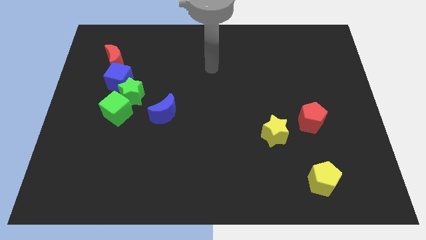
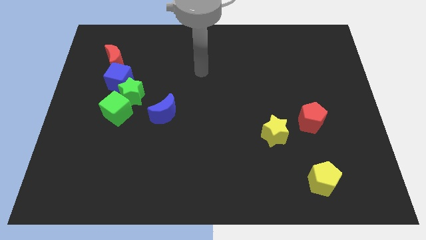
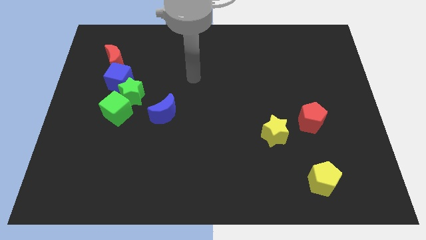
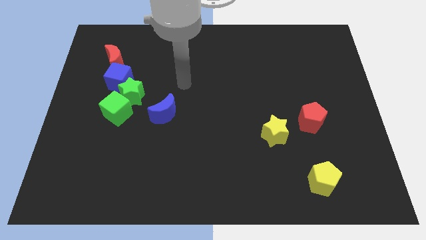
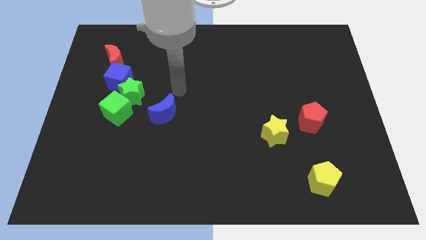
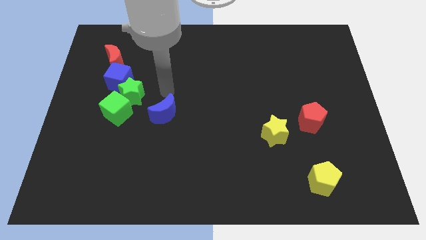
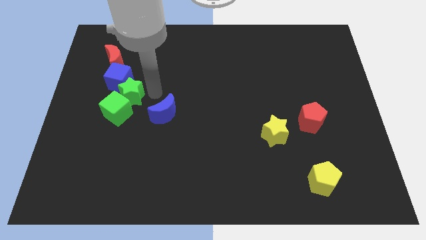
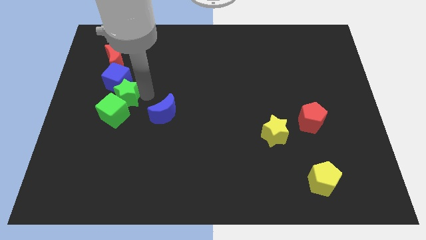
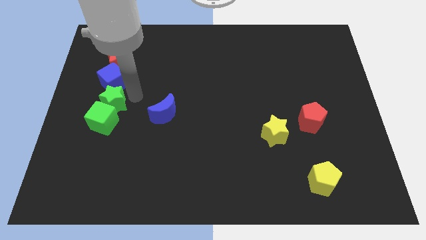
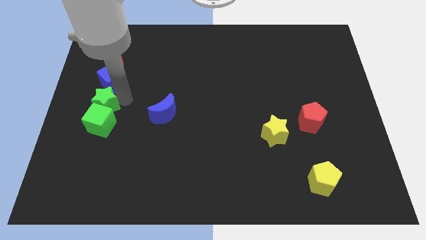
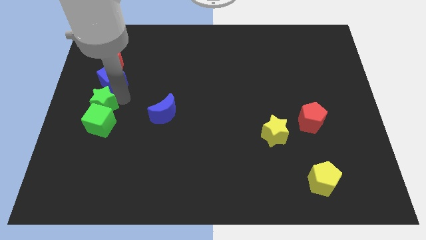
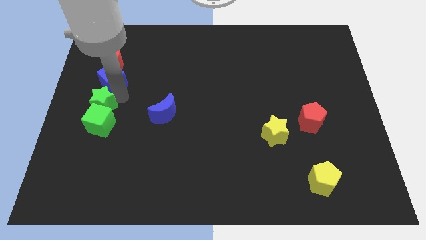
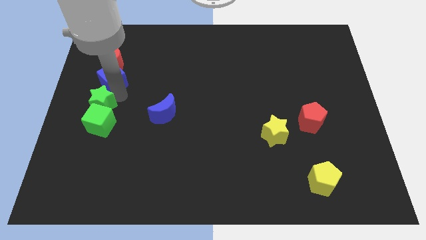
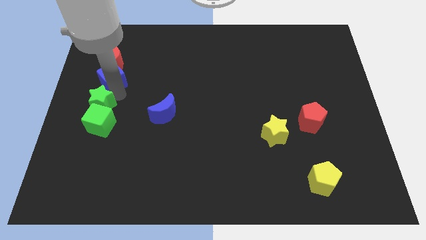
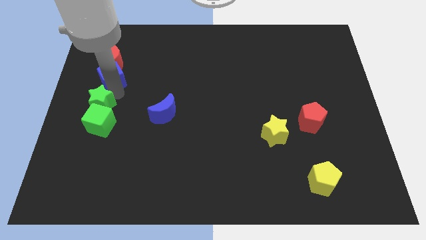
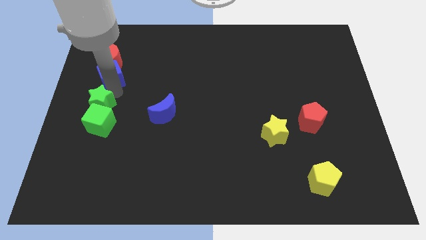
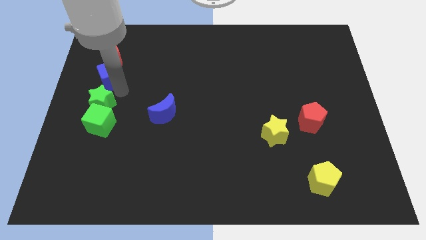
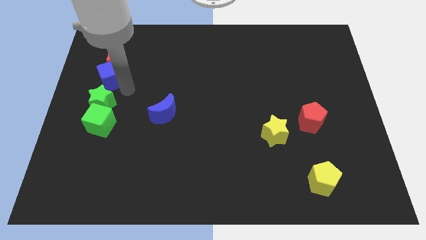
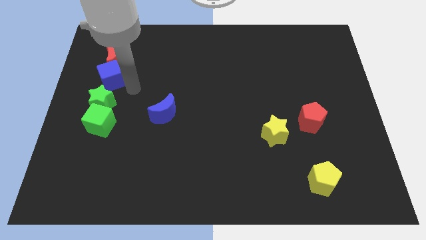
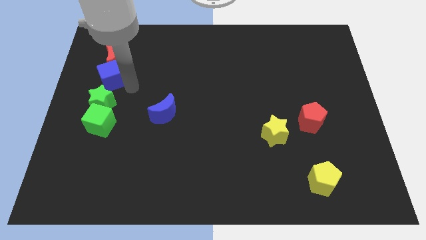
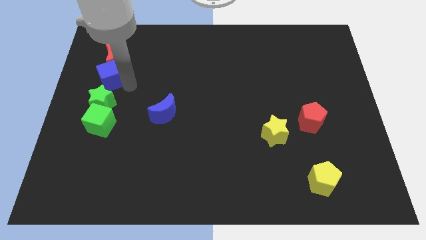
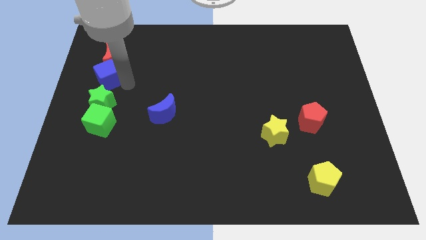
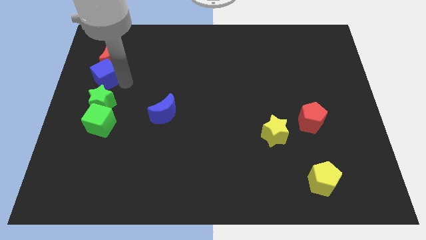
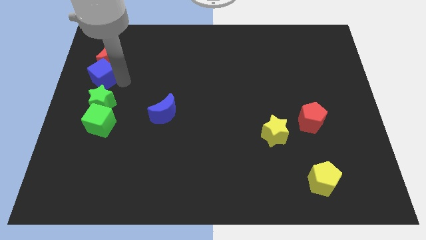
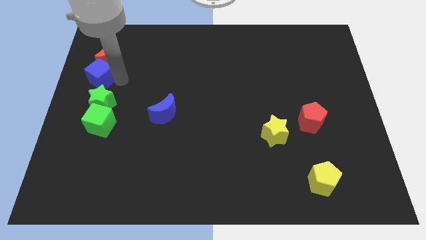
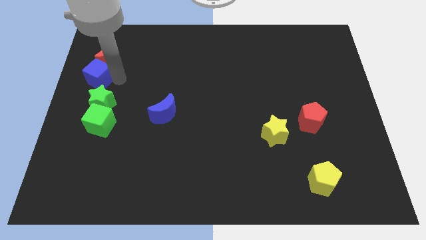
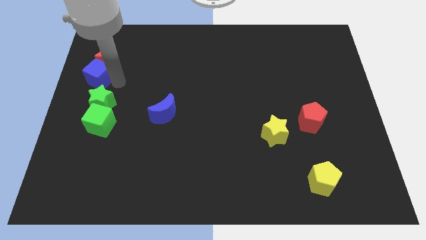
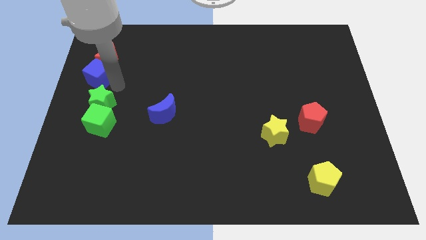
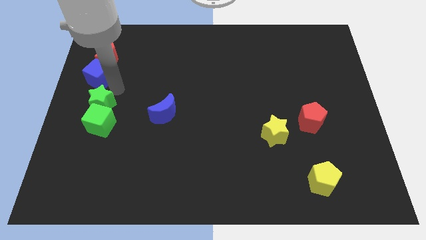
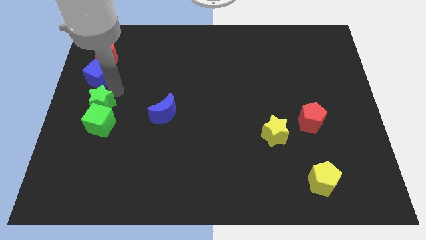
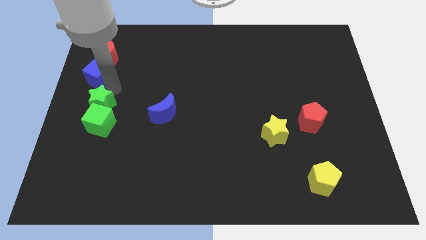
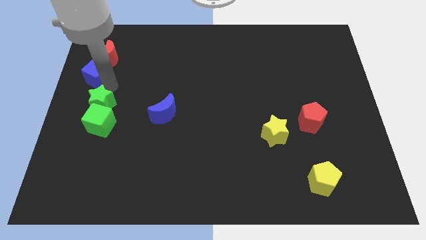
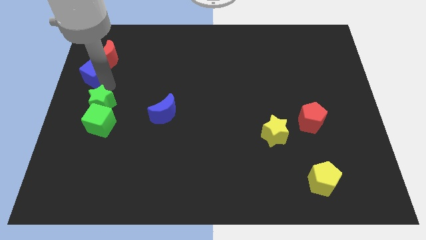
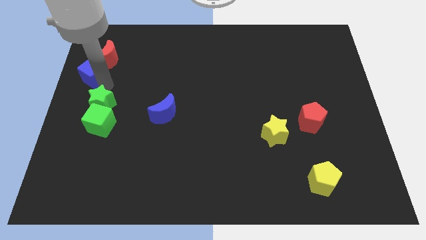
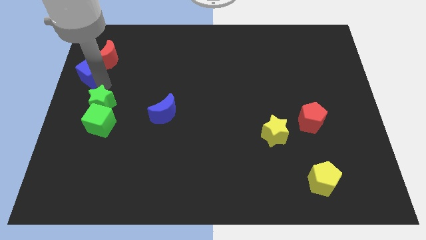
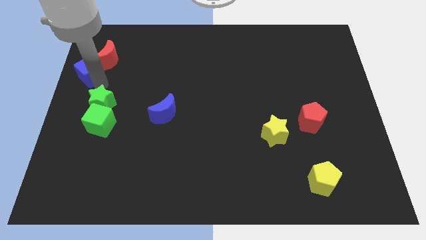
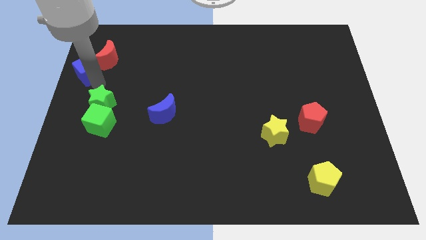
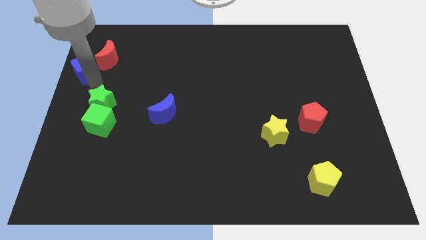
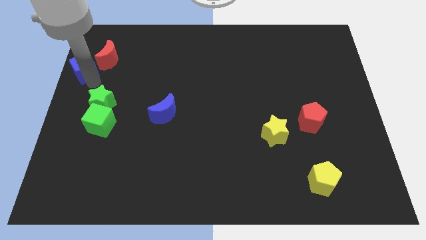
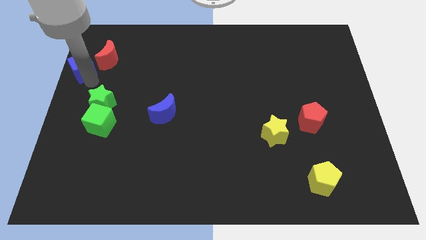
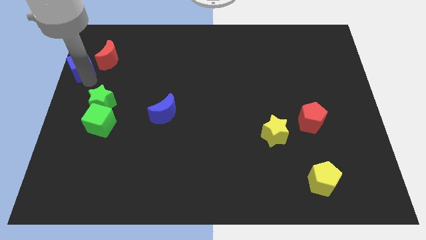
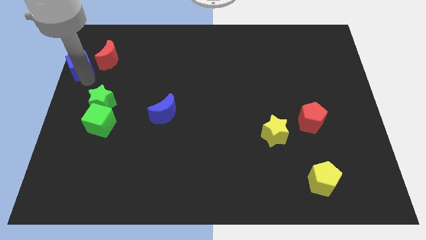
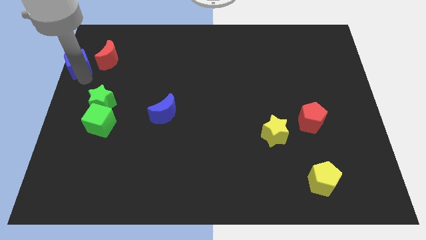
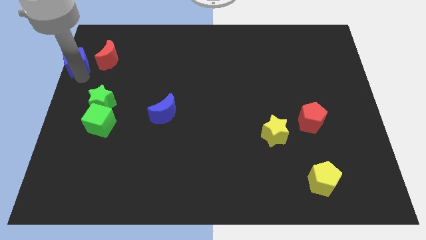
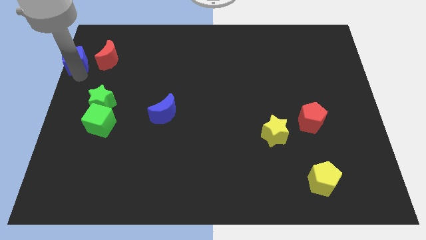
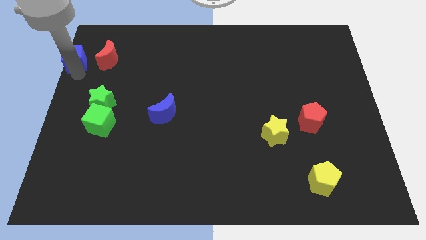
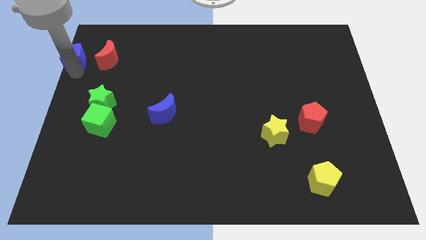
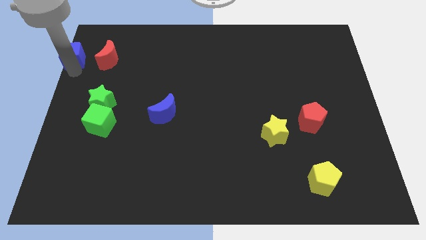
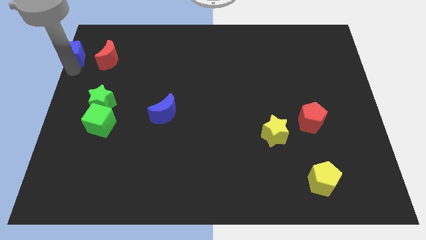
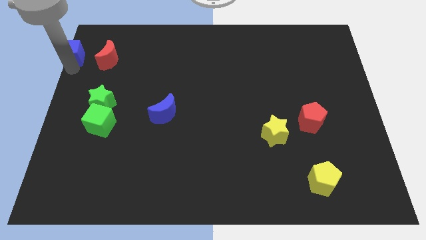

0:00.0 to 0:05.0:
move the blue cube to the upper left corner

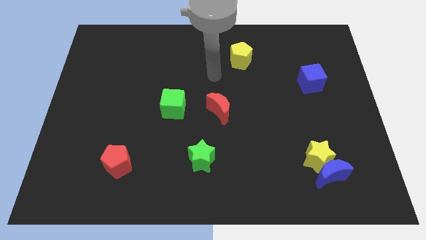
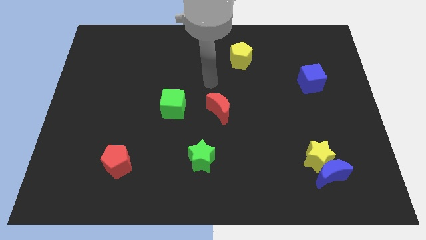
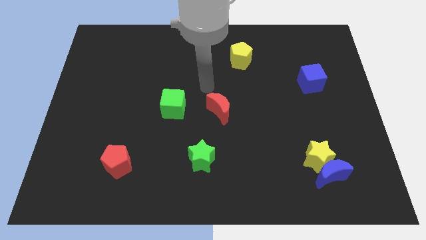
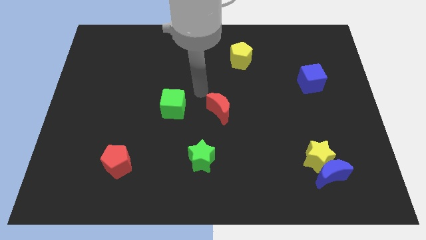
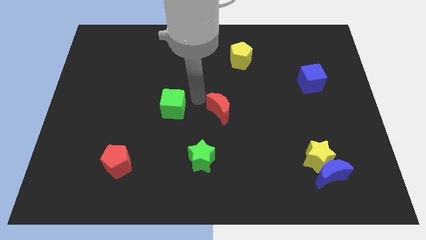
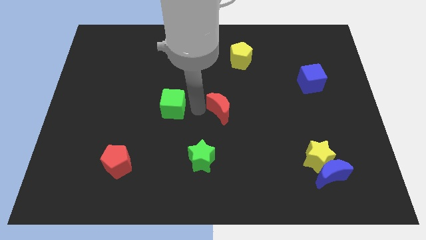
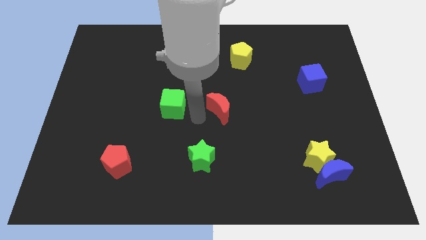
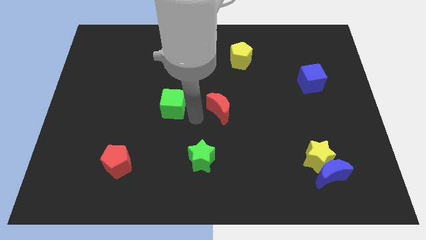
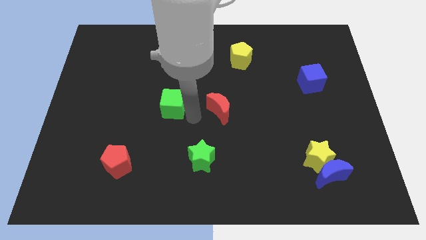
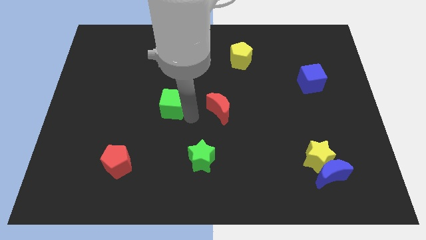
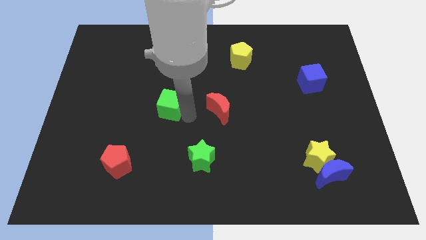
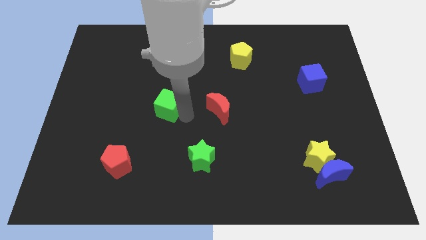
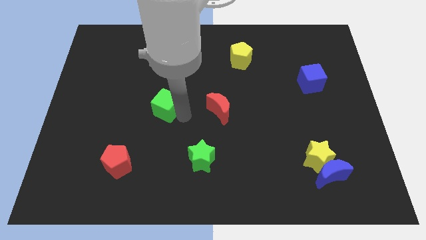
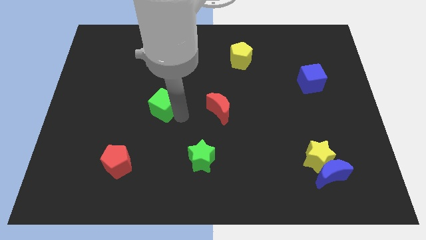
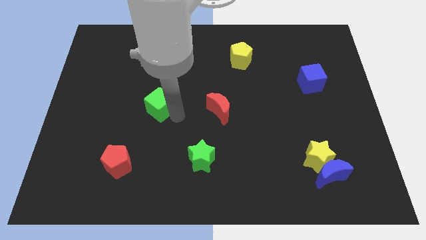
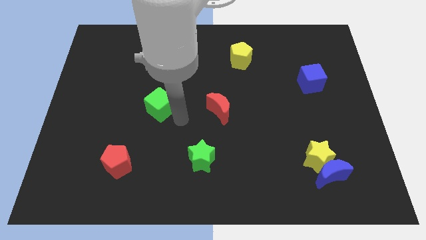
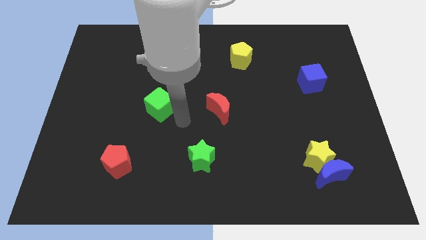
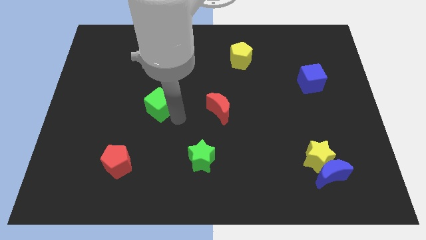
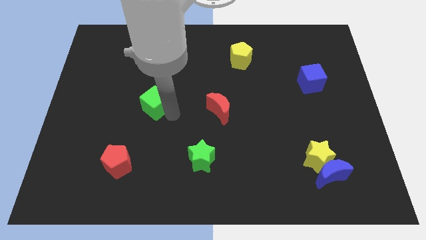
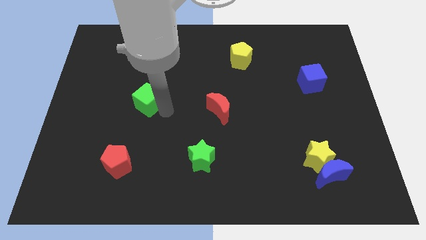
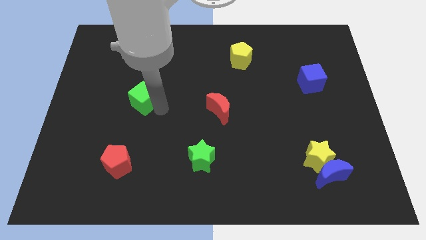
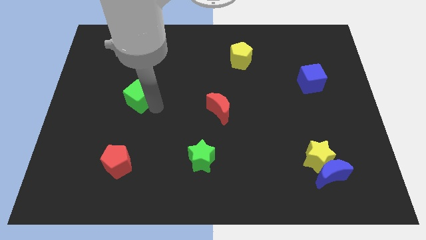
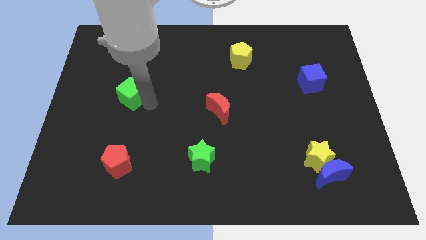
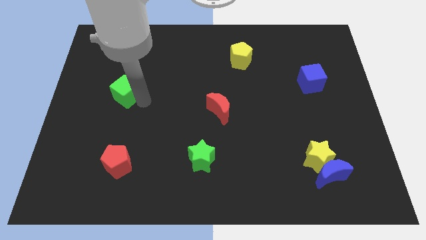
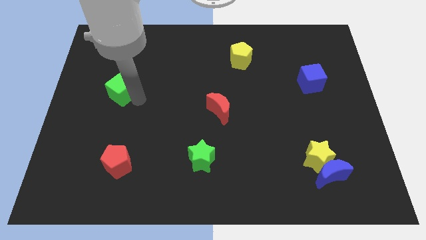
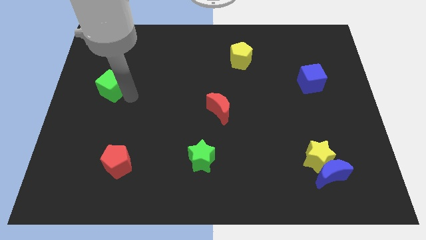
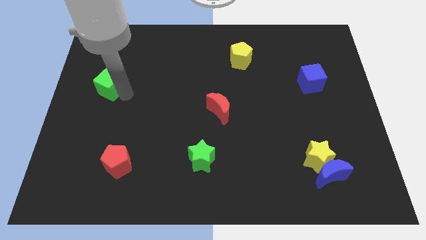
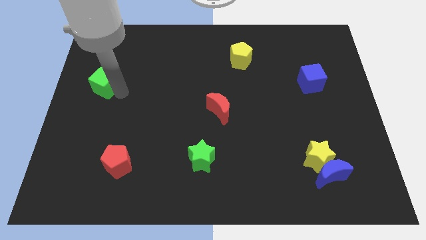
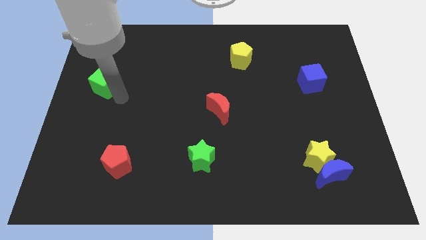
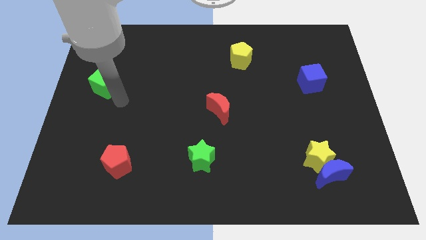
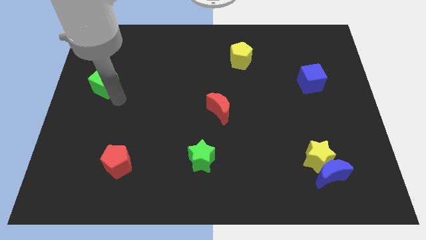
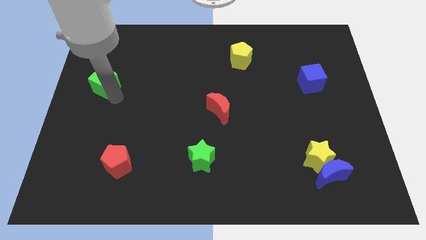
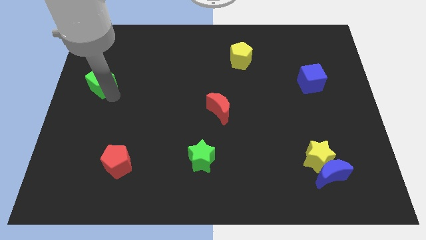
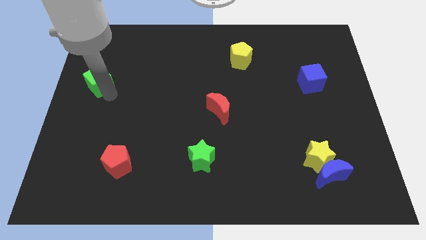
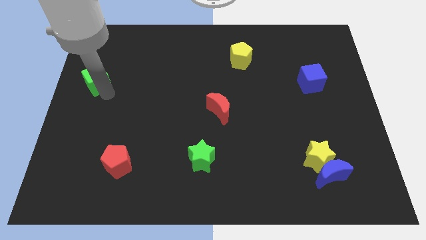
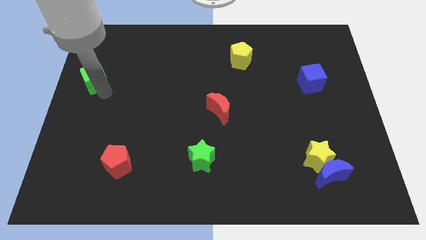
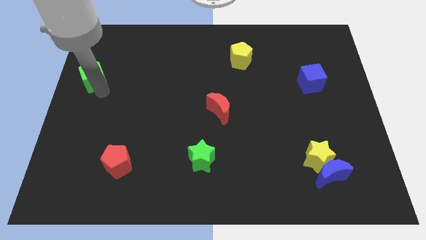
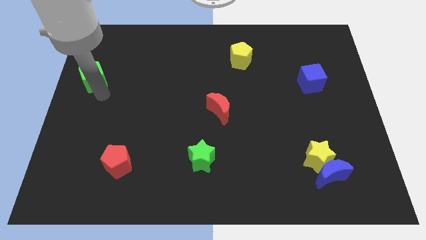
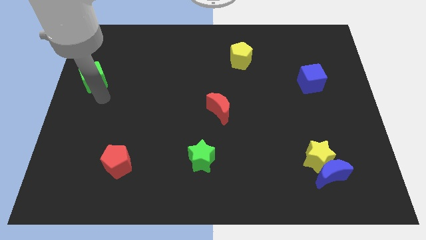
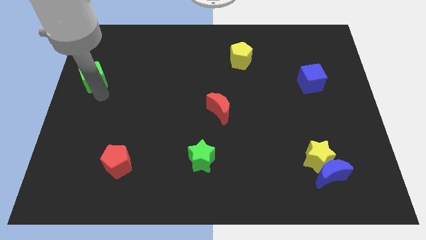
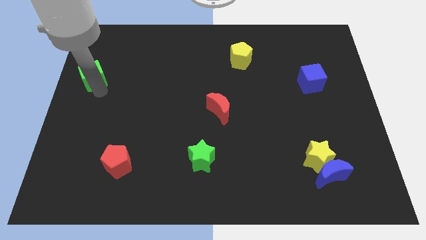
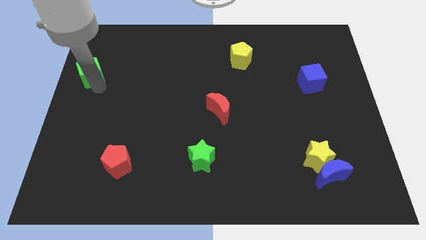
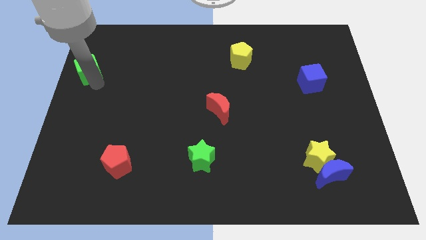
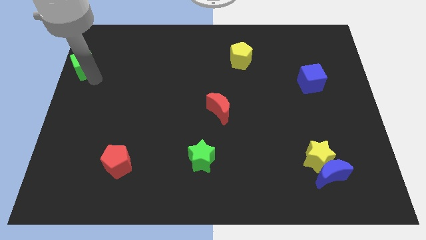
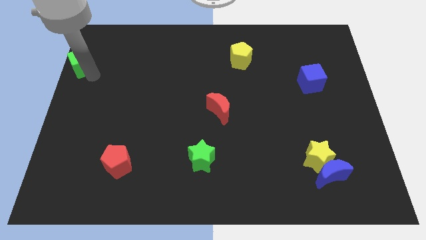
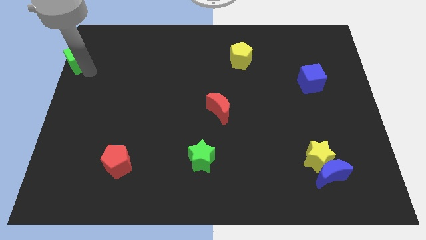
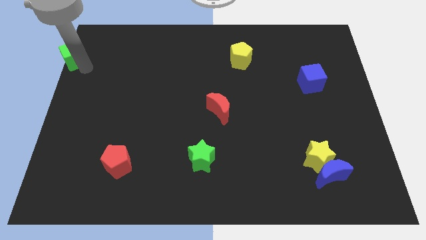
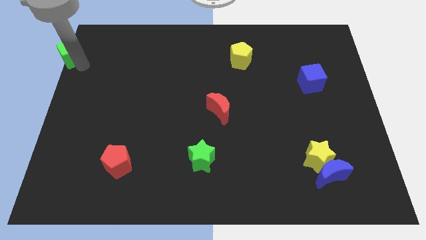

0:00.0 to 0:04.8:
move the green cube to the top left
